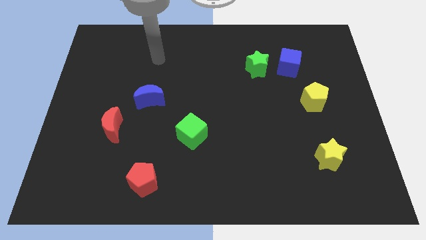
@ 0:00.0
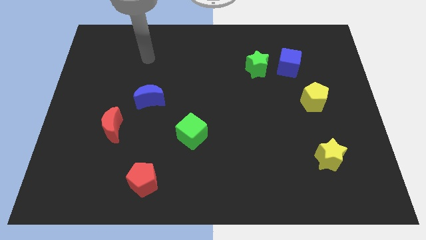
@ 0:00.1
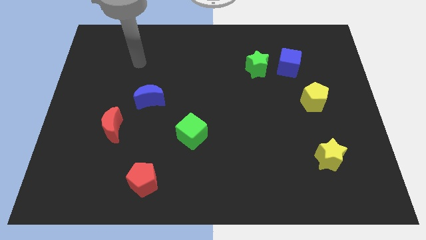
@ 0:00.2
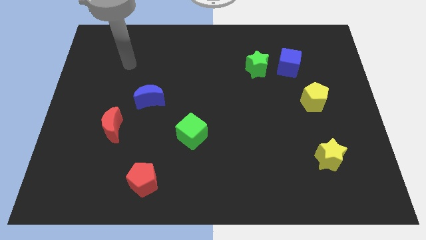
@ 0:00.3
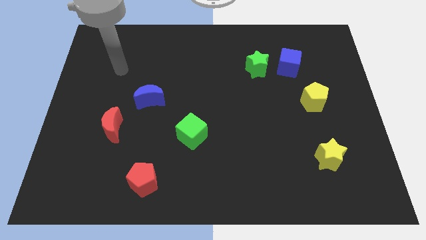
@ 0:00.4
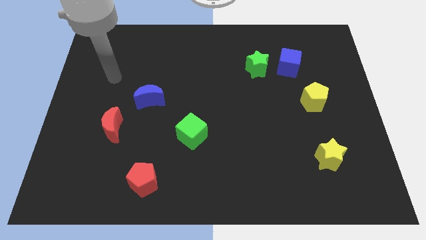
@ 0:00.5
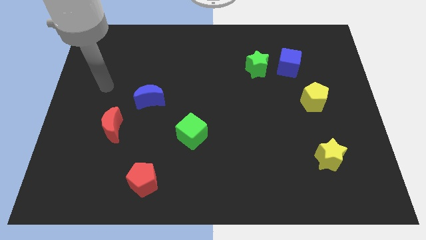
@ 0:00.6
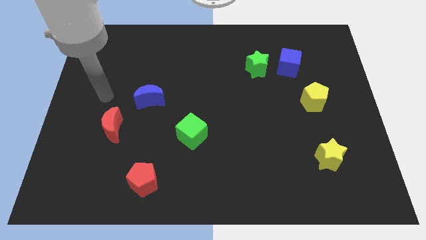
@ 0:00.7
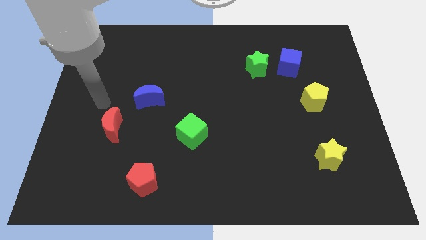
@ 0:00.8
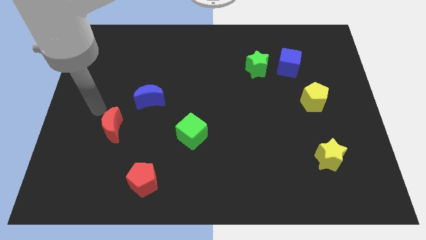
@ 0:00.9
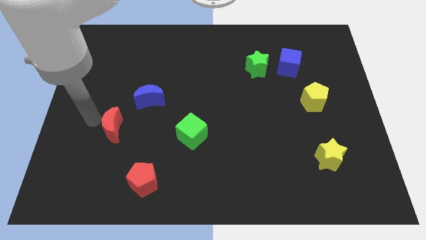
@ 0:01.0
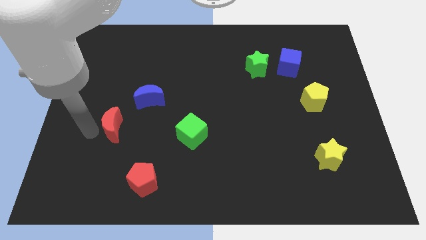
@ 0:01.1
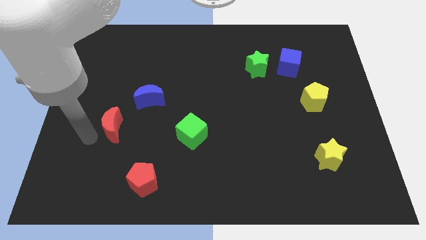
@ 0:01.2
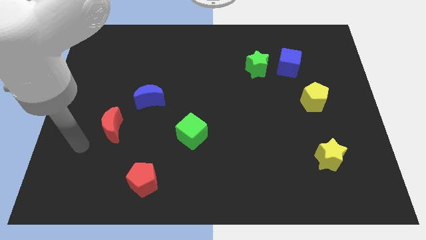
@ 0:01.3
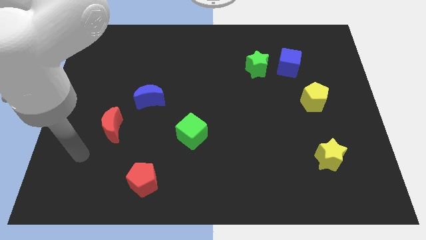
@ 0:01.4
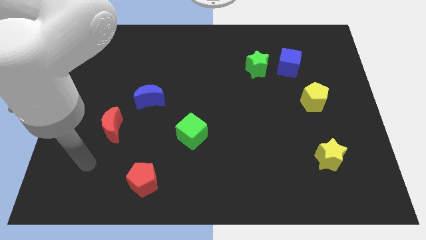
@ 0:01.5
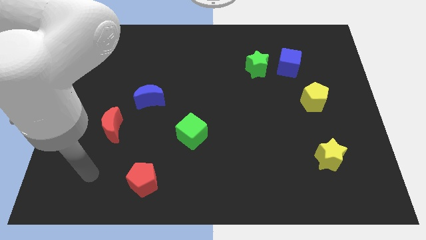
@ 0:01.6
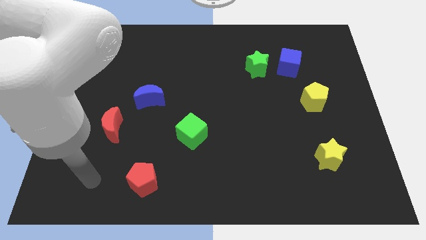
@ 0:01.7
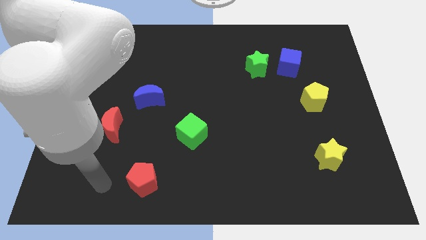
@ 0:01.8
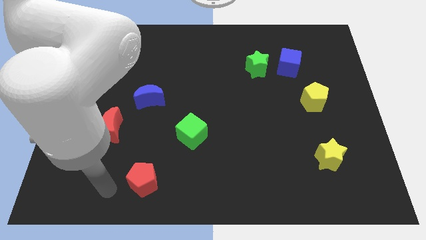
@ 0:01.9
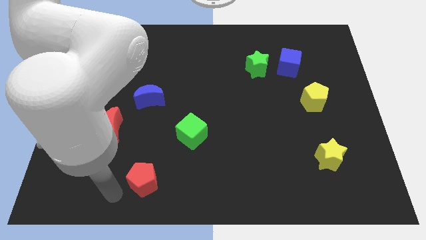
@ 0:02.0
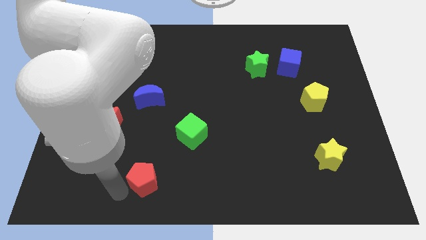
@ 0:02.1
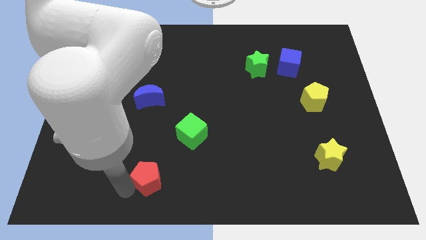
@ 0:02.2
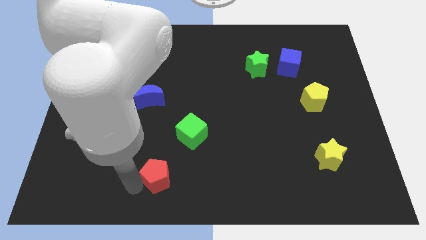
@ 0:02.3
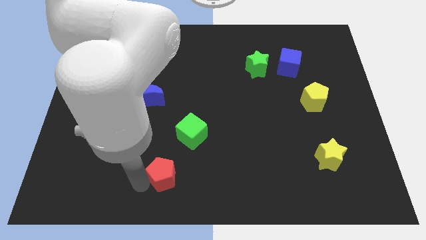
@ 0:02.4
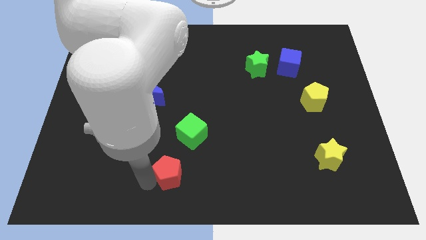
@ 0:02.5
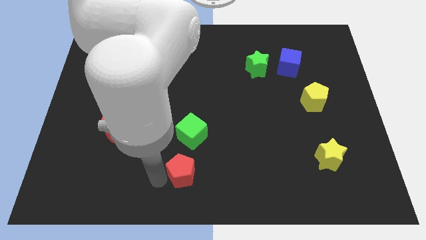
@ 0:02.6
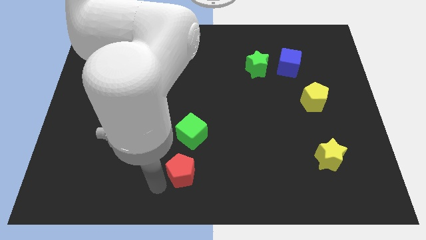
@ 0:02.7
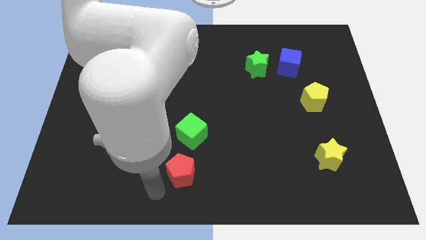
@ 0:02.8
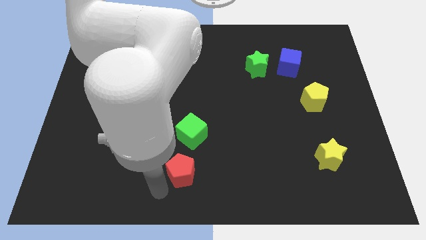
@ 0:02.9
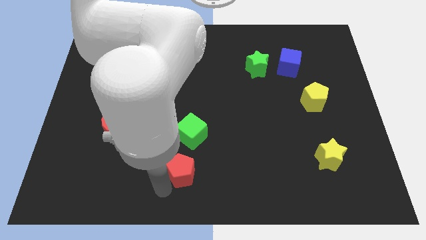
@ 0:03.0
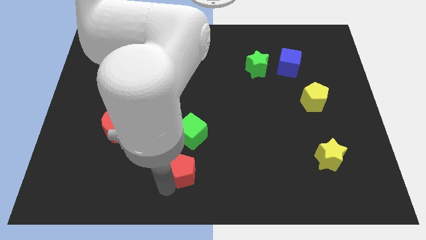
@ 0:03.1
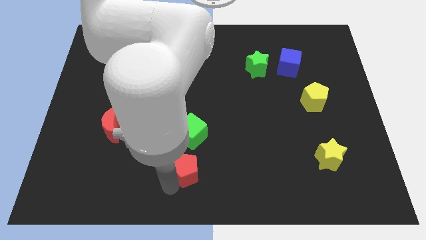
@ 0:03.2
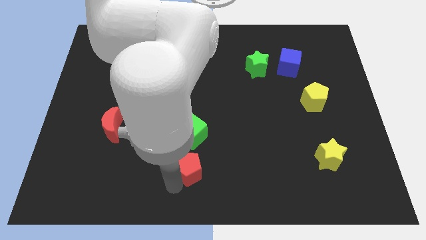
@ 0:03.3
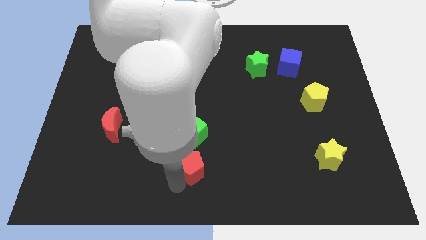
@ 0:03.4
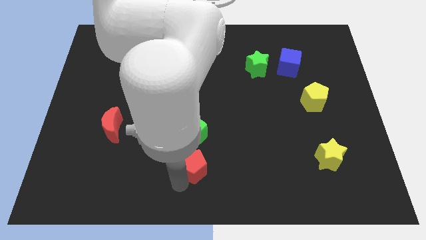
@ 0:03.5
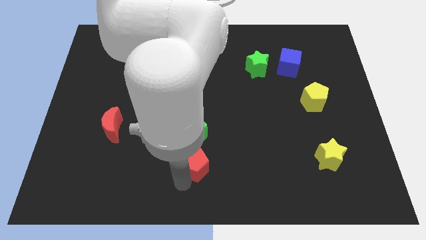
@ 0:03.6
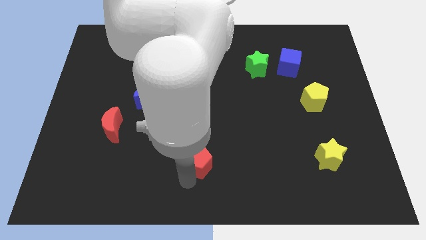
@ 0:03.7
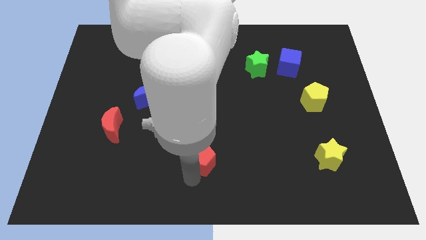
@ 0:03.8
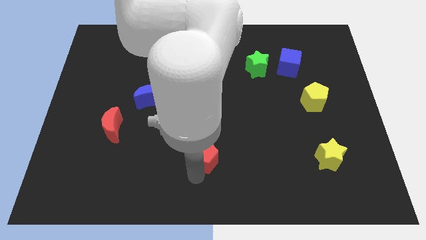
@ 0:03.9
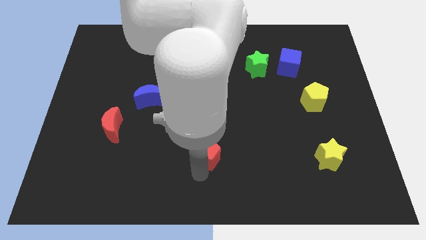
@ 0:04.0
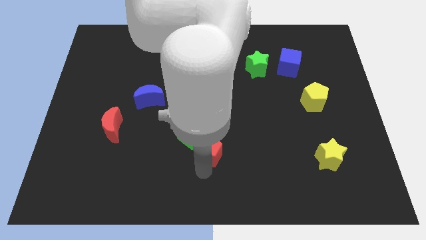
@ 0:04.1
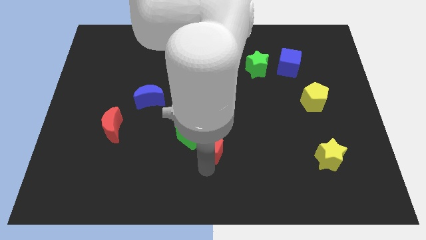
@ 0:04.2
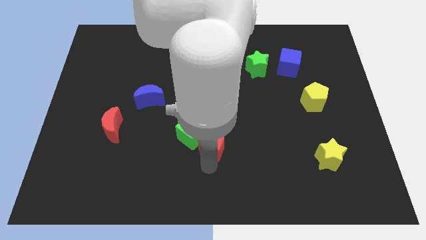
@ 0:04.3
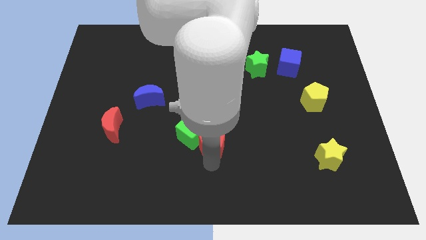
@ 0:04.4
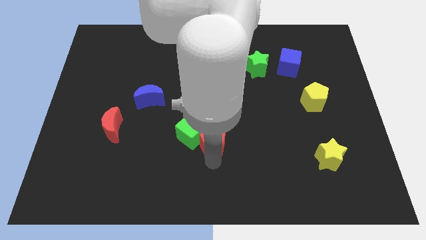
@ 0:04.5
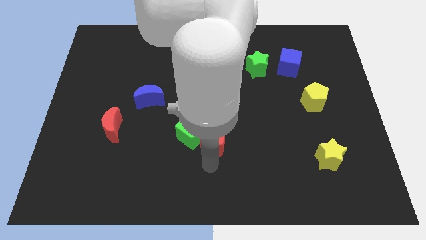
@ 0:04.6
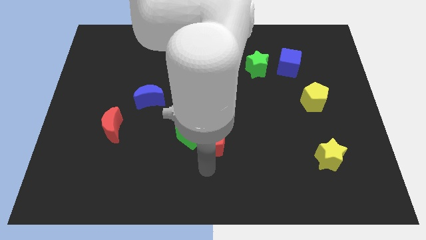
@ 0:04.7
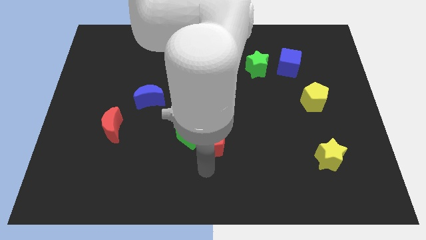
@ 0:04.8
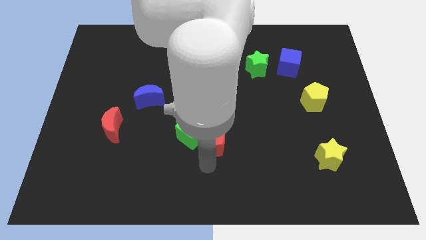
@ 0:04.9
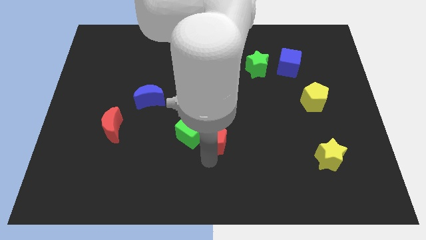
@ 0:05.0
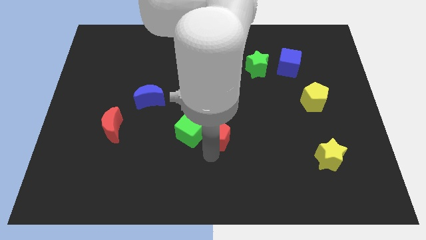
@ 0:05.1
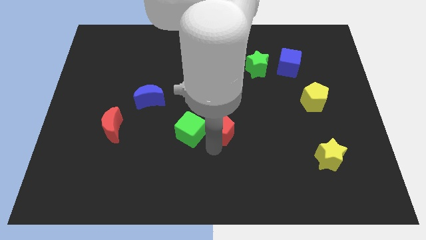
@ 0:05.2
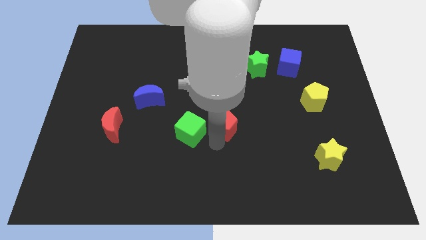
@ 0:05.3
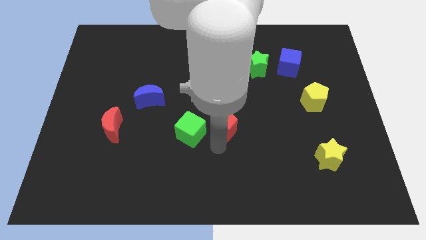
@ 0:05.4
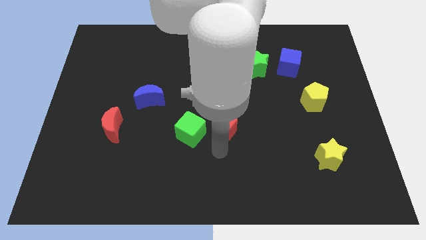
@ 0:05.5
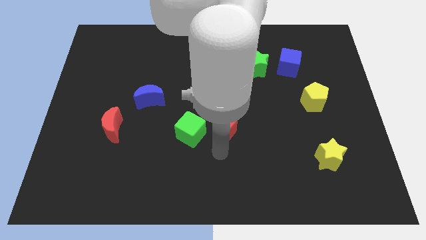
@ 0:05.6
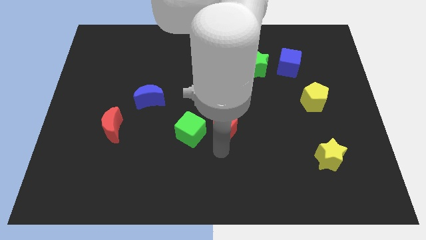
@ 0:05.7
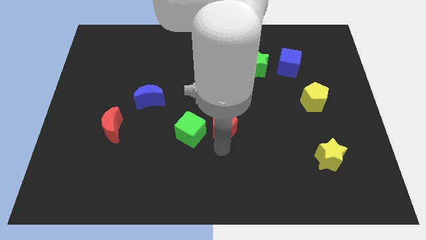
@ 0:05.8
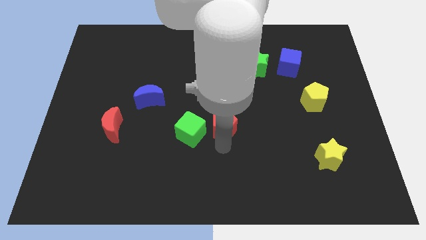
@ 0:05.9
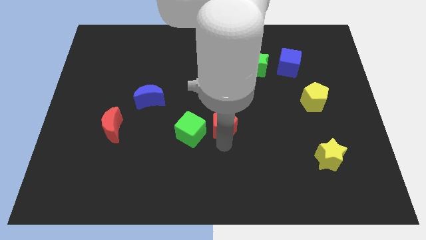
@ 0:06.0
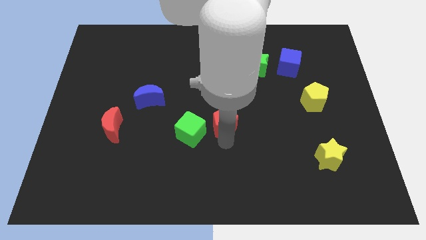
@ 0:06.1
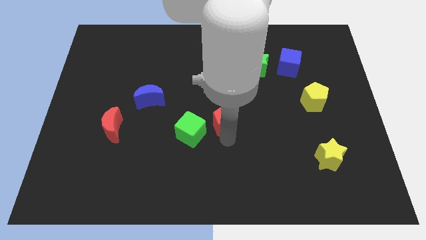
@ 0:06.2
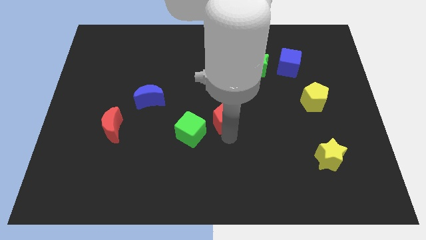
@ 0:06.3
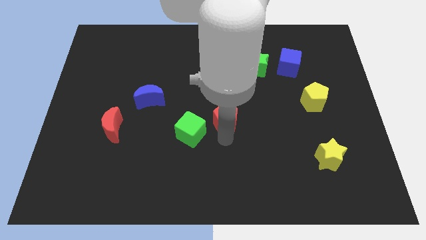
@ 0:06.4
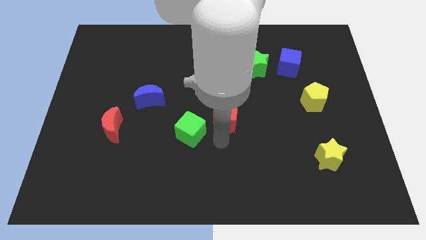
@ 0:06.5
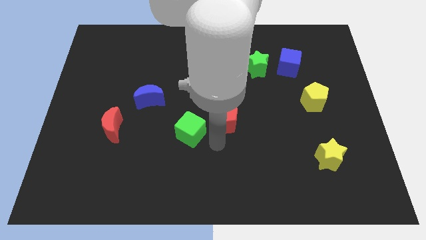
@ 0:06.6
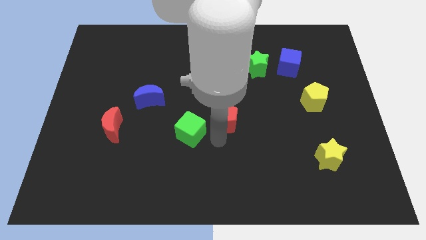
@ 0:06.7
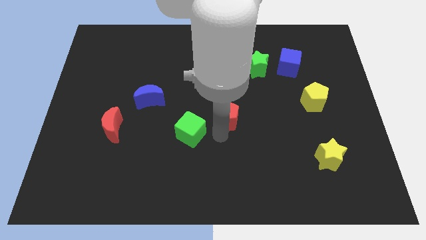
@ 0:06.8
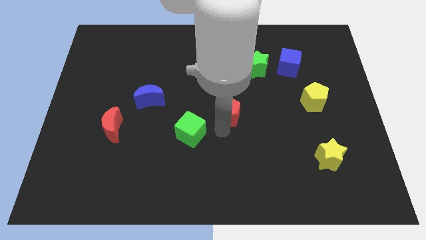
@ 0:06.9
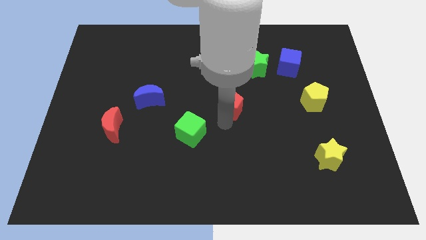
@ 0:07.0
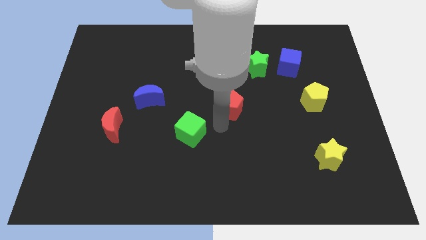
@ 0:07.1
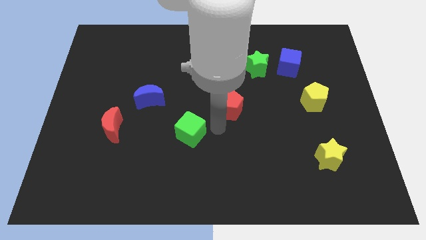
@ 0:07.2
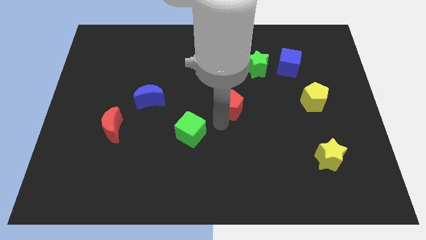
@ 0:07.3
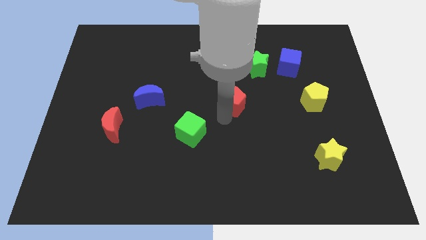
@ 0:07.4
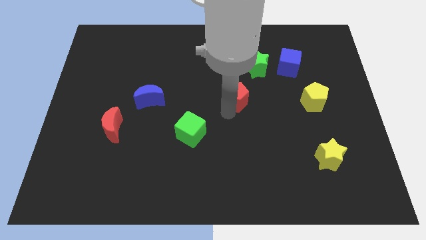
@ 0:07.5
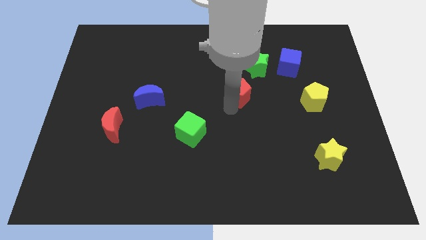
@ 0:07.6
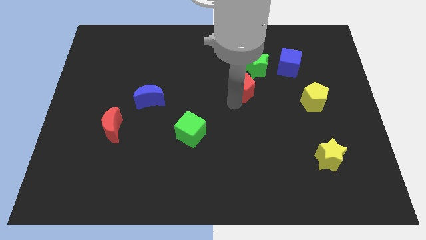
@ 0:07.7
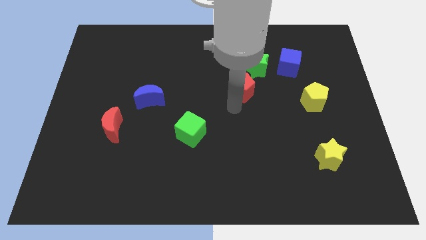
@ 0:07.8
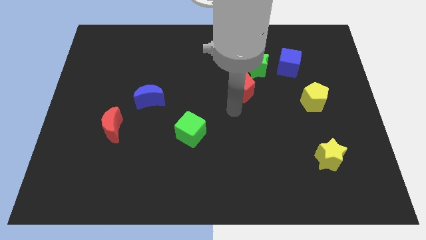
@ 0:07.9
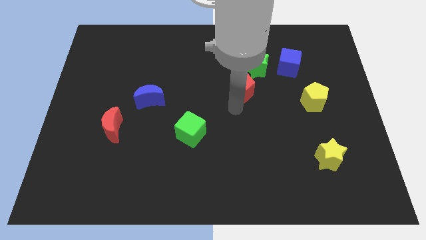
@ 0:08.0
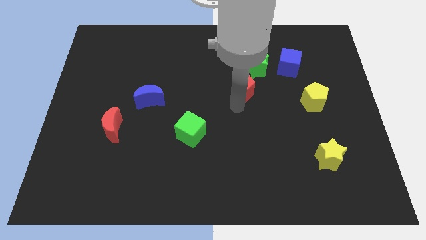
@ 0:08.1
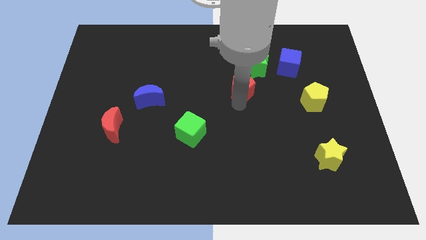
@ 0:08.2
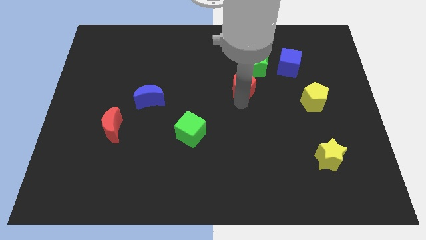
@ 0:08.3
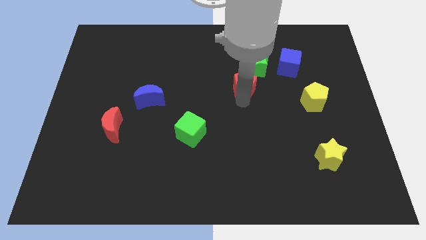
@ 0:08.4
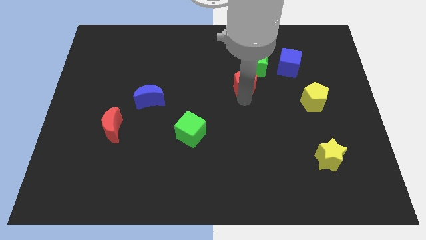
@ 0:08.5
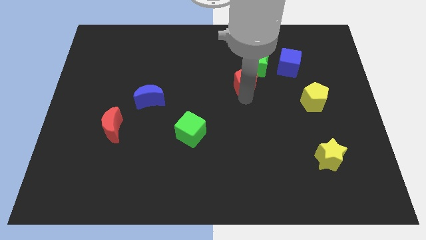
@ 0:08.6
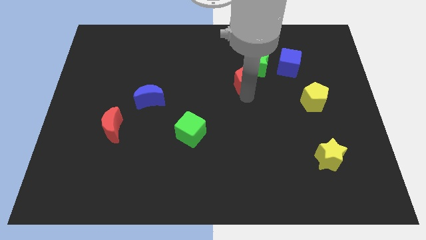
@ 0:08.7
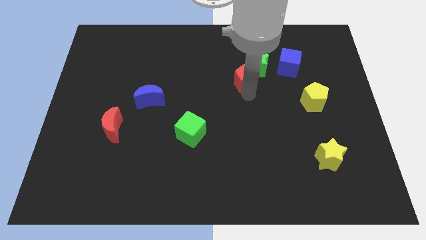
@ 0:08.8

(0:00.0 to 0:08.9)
move the red pentagon close to the green star
